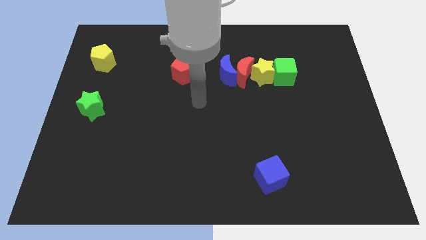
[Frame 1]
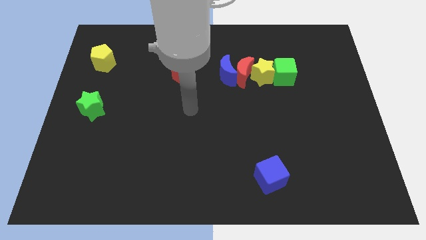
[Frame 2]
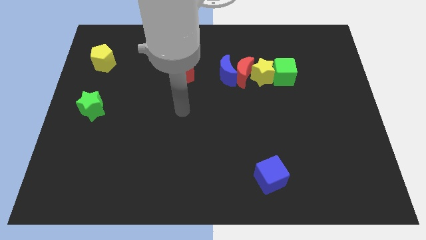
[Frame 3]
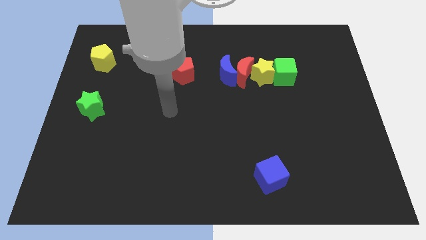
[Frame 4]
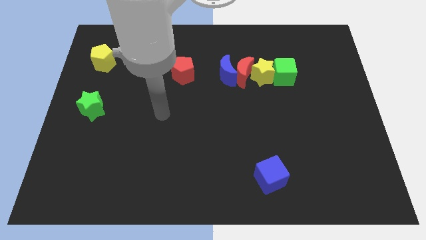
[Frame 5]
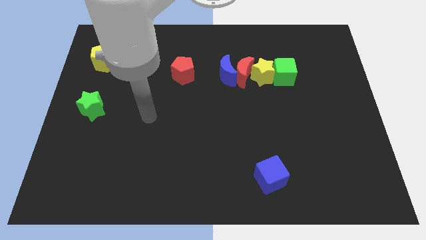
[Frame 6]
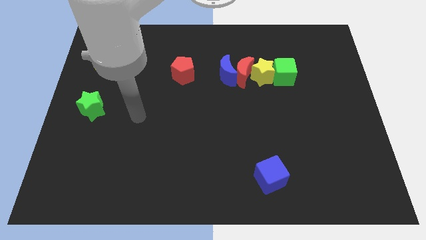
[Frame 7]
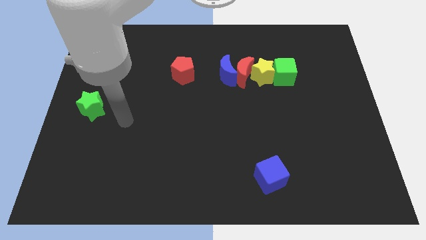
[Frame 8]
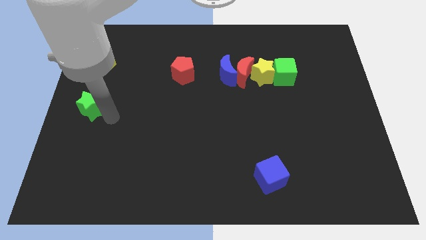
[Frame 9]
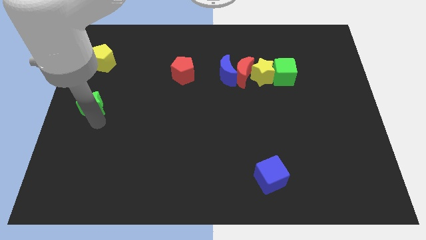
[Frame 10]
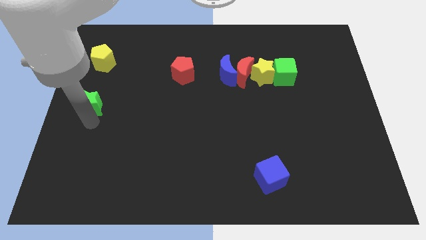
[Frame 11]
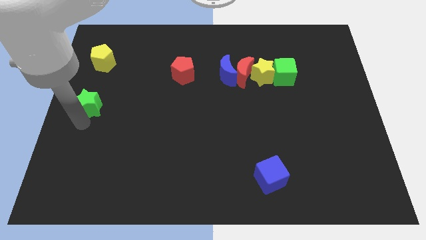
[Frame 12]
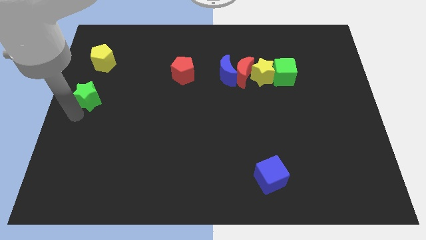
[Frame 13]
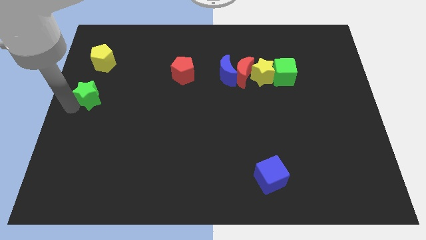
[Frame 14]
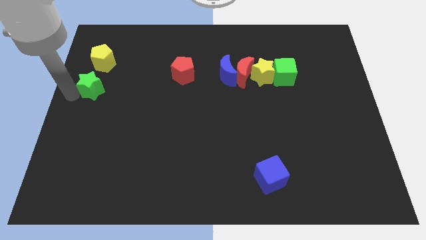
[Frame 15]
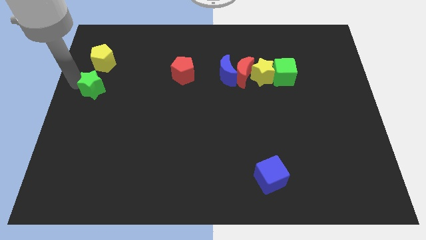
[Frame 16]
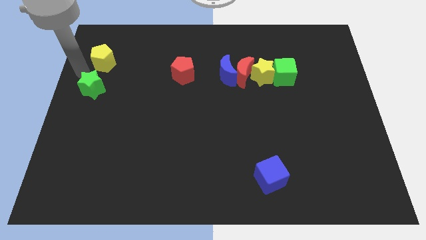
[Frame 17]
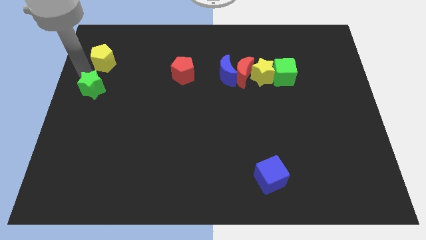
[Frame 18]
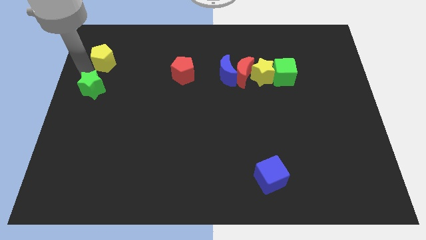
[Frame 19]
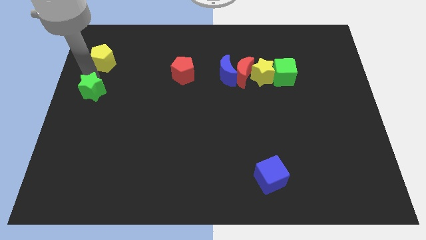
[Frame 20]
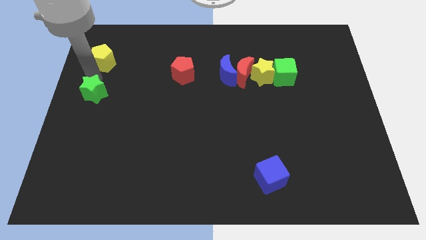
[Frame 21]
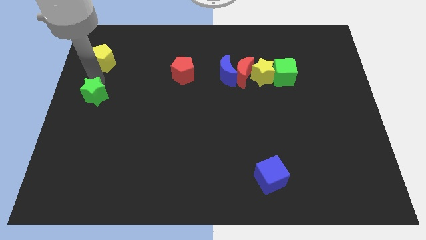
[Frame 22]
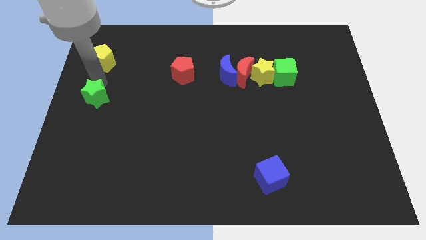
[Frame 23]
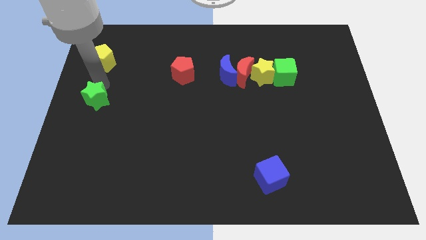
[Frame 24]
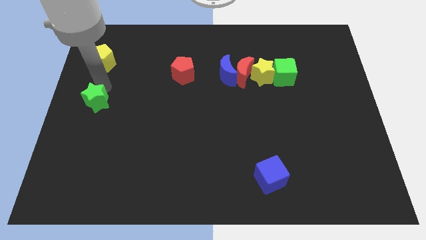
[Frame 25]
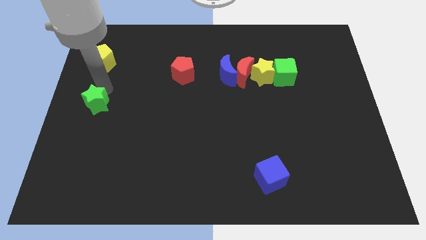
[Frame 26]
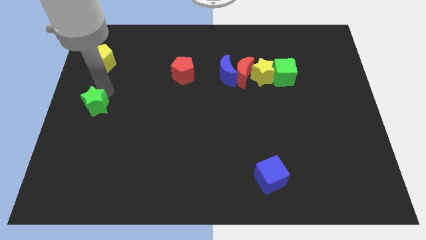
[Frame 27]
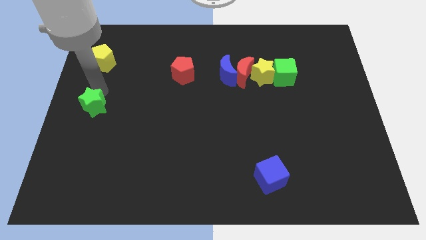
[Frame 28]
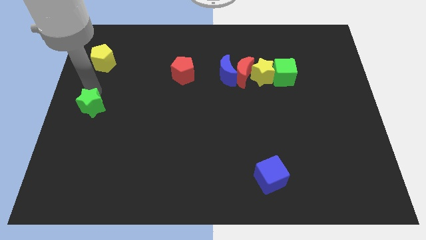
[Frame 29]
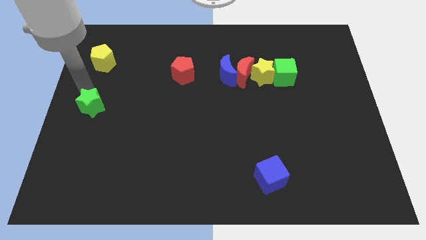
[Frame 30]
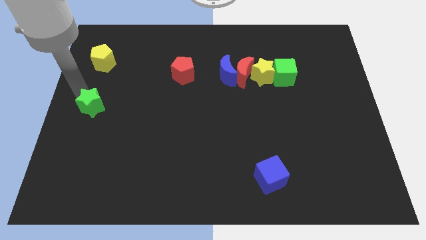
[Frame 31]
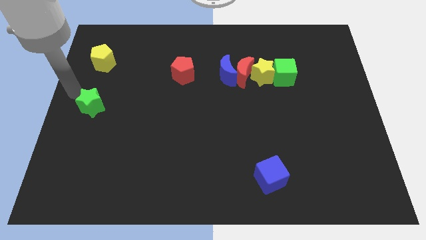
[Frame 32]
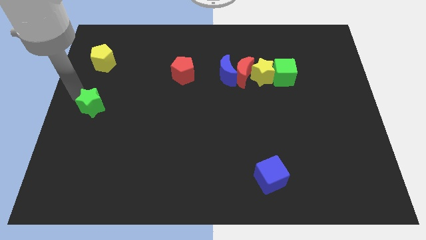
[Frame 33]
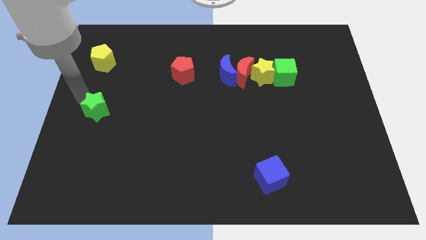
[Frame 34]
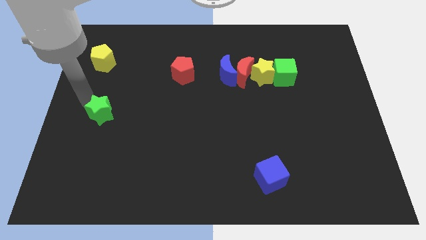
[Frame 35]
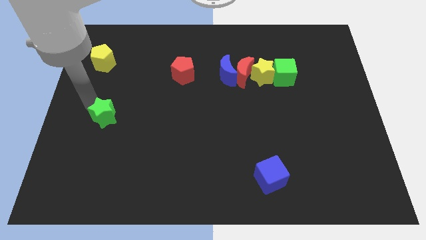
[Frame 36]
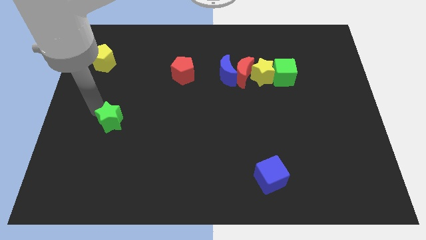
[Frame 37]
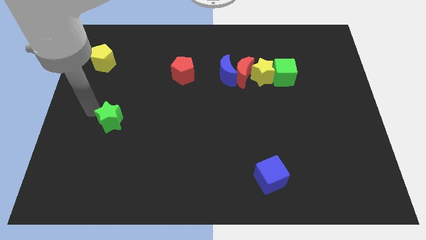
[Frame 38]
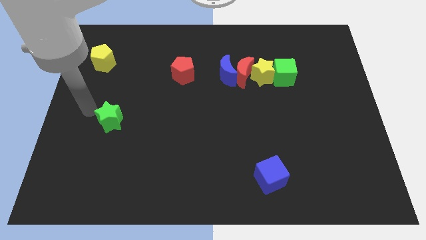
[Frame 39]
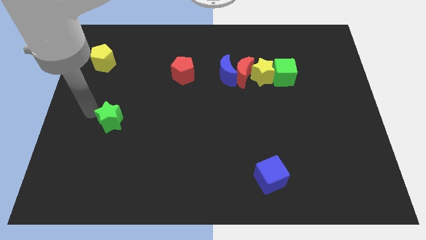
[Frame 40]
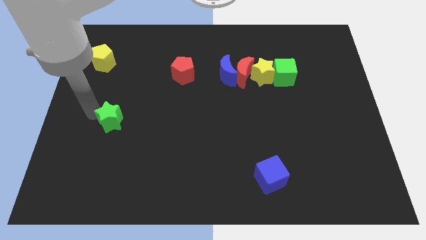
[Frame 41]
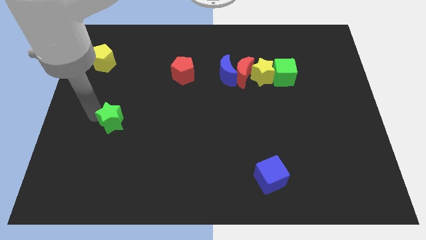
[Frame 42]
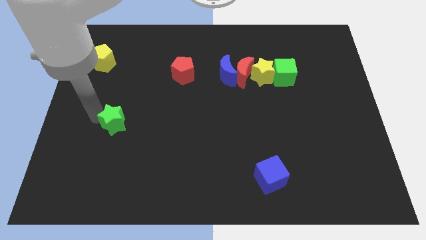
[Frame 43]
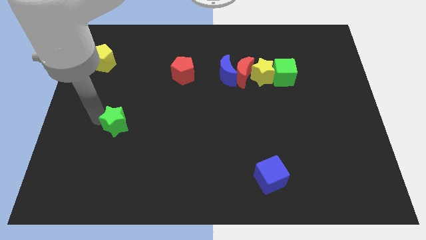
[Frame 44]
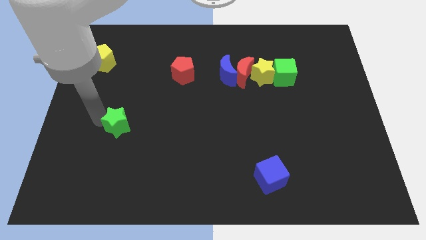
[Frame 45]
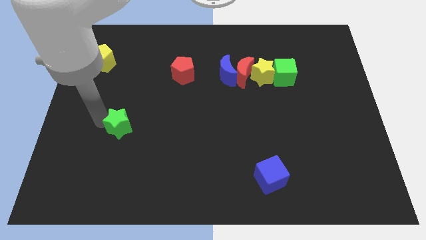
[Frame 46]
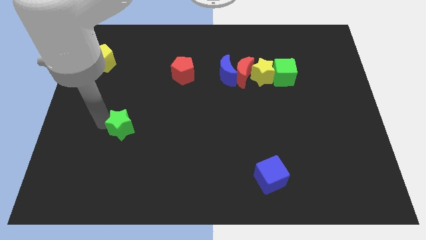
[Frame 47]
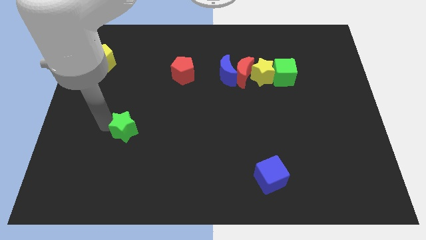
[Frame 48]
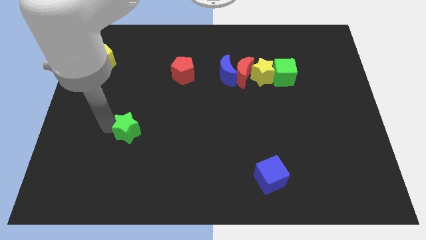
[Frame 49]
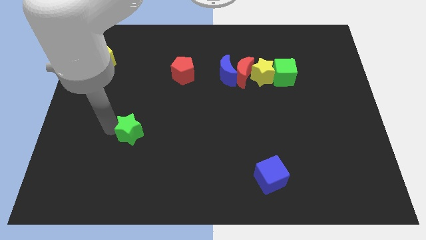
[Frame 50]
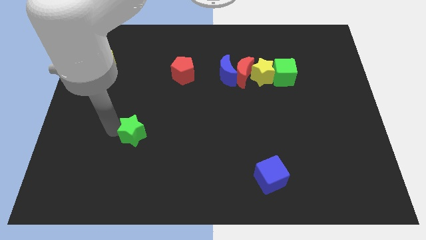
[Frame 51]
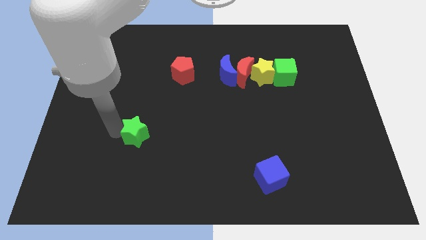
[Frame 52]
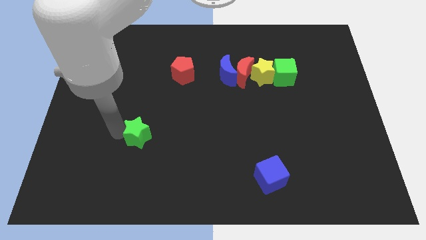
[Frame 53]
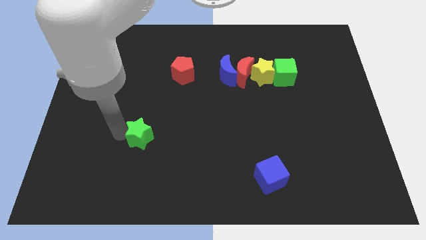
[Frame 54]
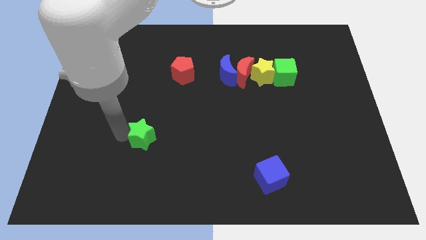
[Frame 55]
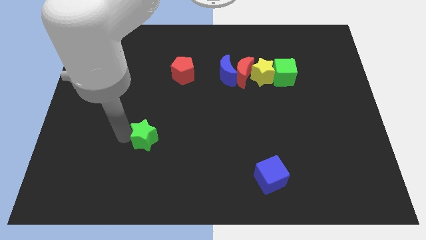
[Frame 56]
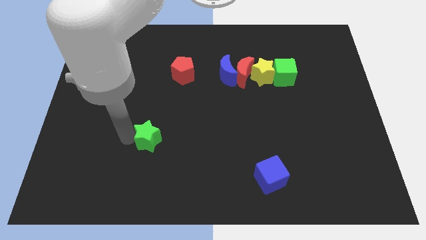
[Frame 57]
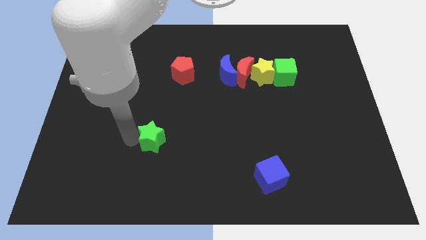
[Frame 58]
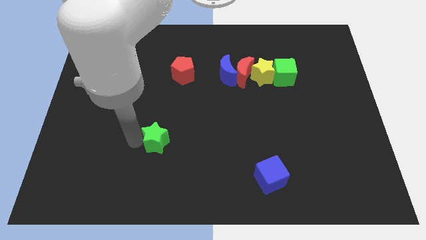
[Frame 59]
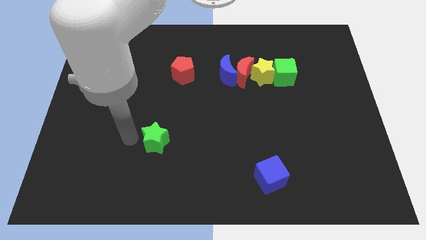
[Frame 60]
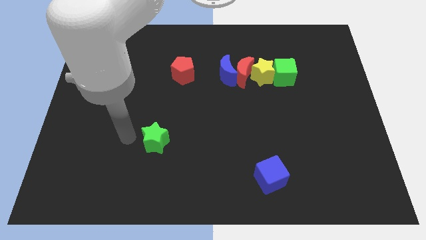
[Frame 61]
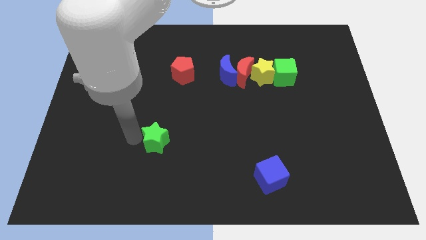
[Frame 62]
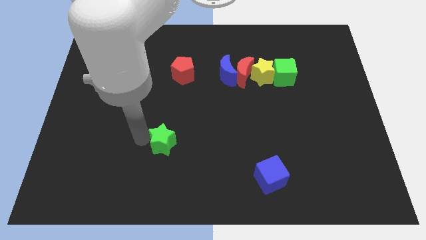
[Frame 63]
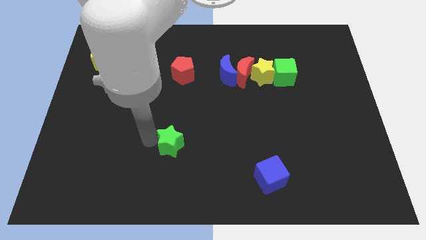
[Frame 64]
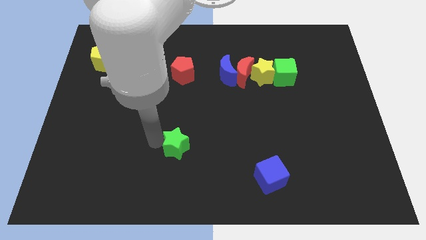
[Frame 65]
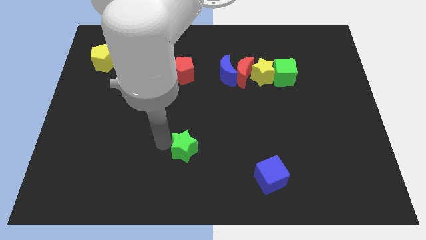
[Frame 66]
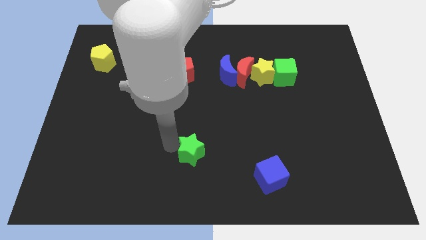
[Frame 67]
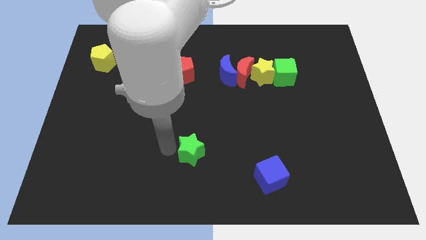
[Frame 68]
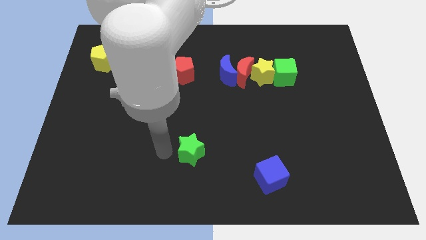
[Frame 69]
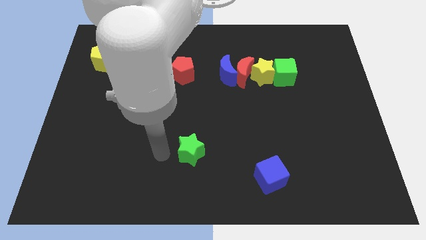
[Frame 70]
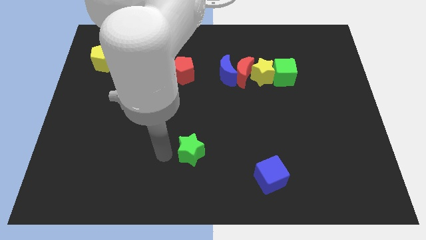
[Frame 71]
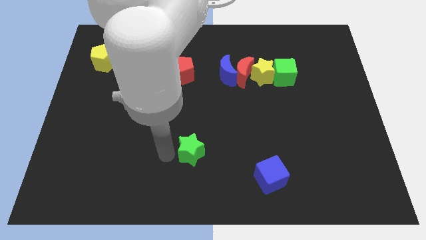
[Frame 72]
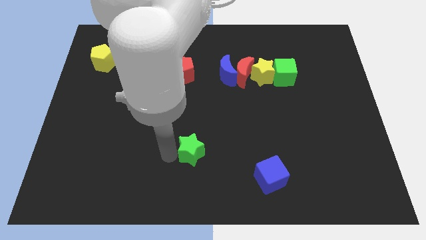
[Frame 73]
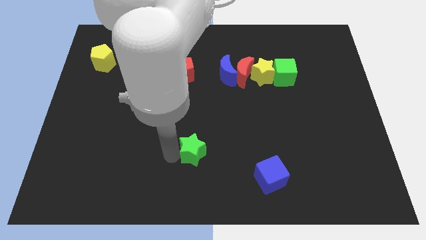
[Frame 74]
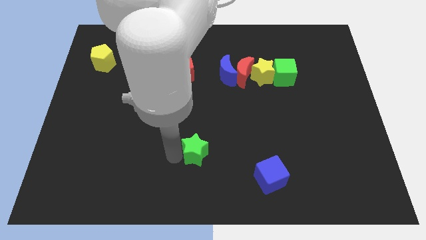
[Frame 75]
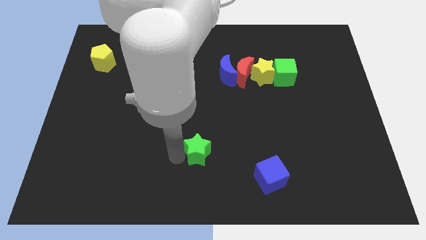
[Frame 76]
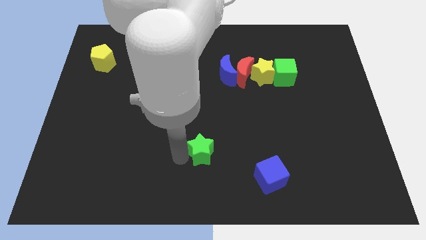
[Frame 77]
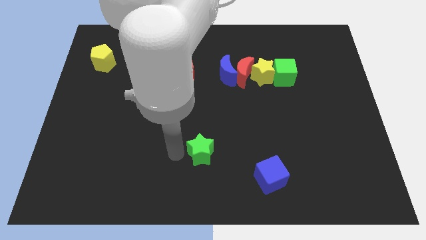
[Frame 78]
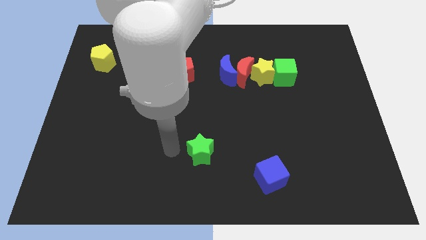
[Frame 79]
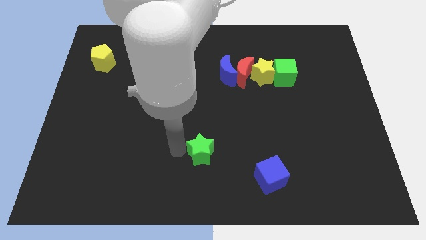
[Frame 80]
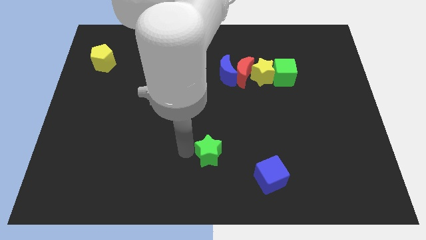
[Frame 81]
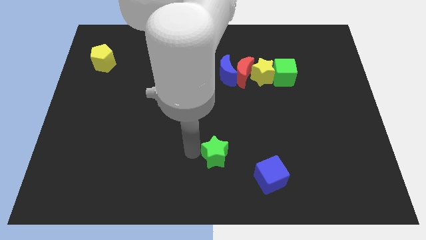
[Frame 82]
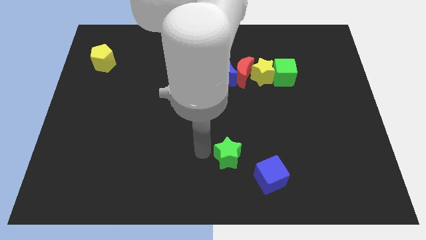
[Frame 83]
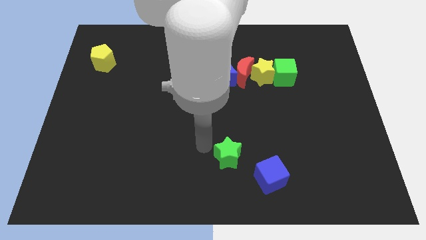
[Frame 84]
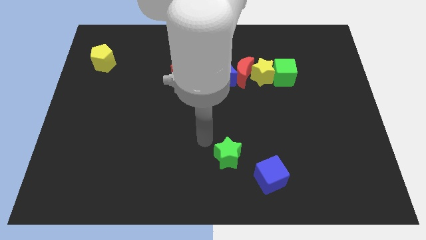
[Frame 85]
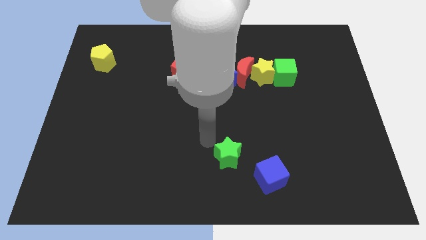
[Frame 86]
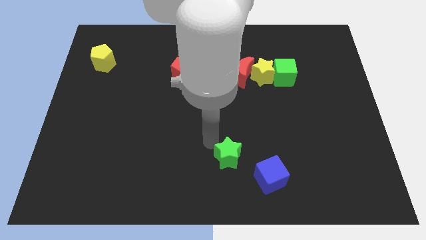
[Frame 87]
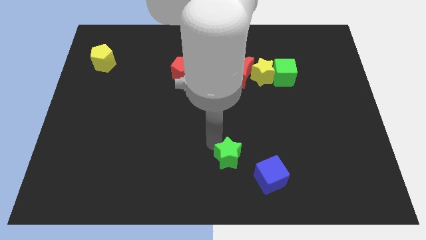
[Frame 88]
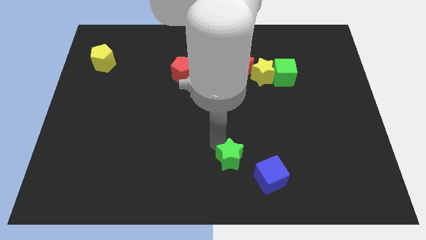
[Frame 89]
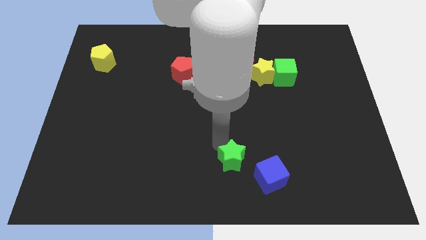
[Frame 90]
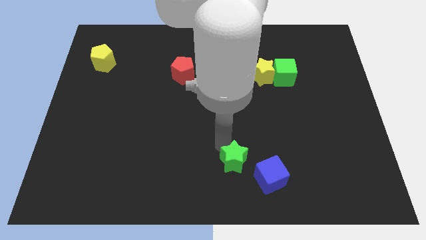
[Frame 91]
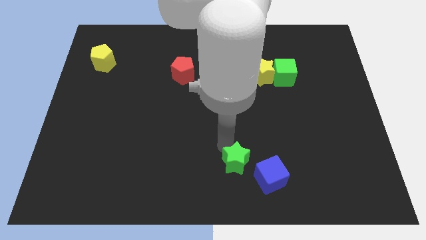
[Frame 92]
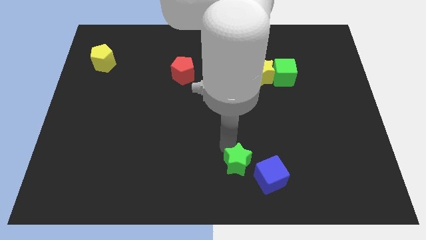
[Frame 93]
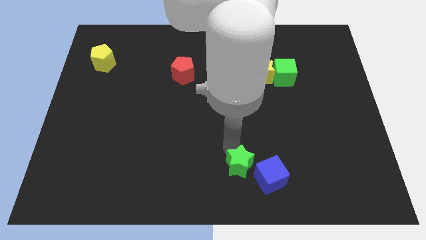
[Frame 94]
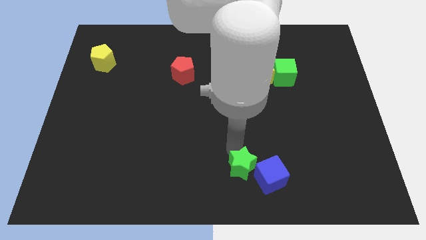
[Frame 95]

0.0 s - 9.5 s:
move the green star next to the blue cube
